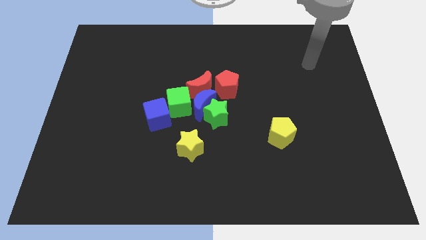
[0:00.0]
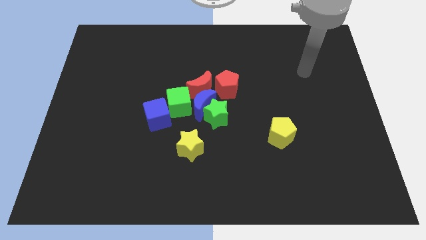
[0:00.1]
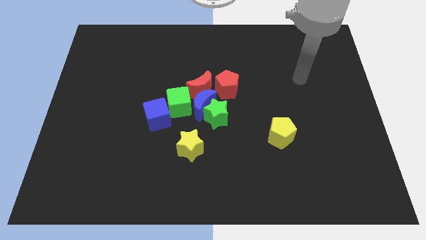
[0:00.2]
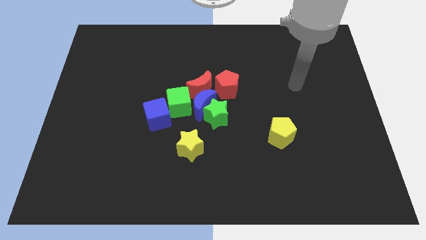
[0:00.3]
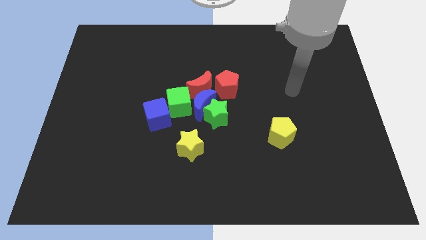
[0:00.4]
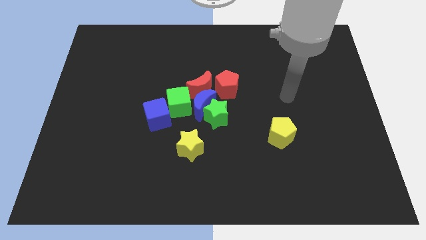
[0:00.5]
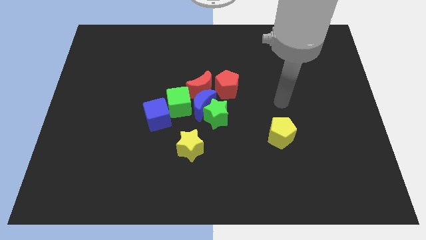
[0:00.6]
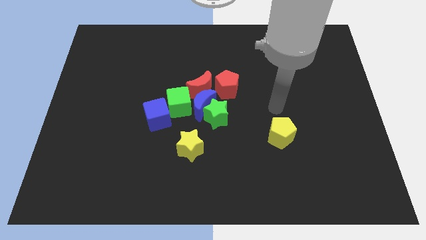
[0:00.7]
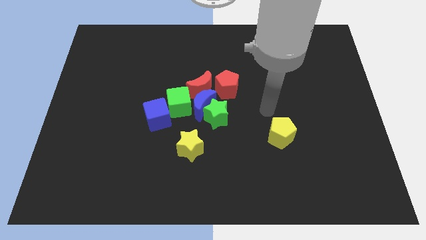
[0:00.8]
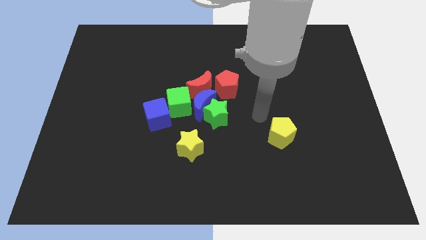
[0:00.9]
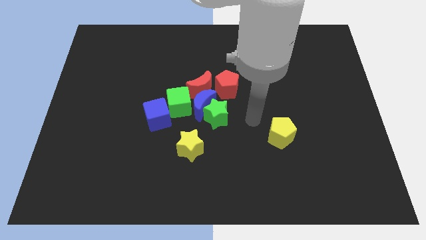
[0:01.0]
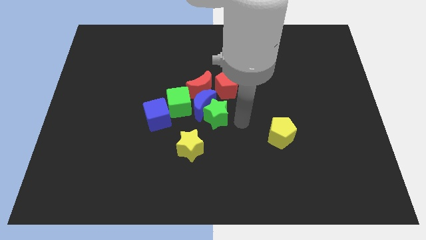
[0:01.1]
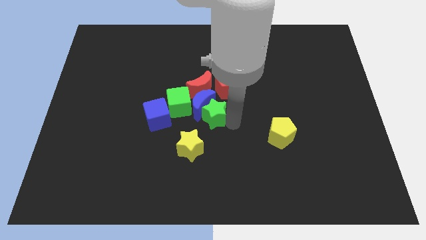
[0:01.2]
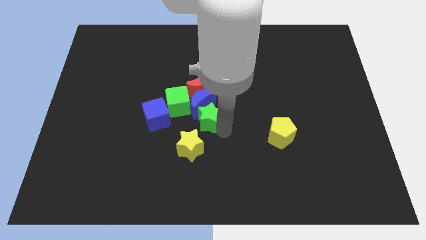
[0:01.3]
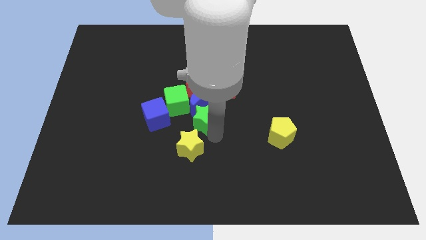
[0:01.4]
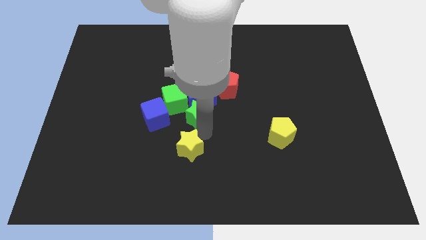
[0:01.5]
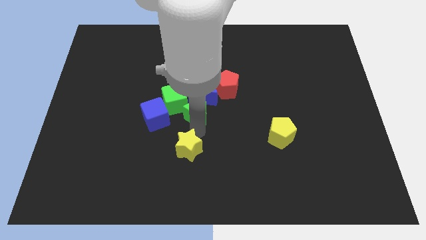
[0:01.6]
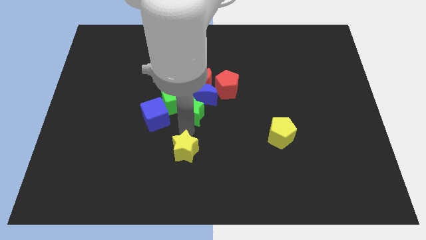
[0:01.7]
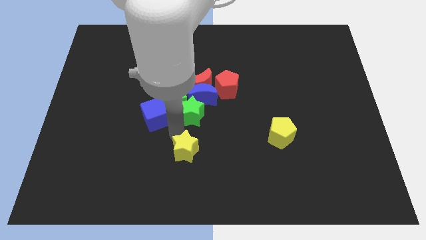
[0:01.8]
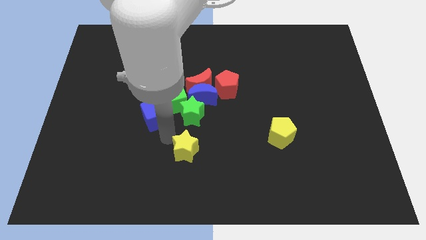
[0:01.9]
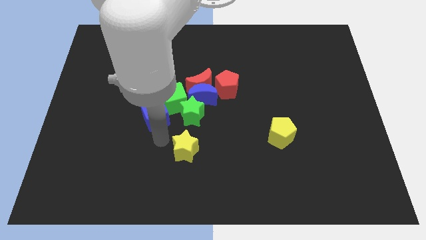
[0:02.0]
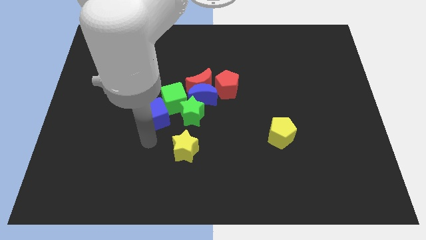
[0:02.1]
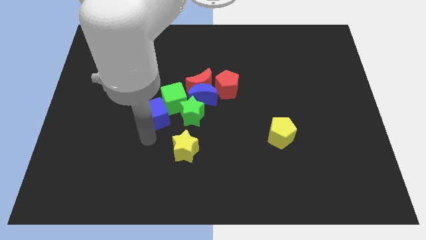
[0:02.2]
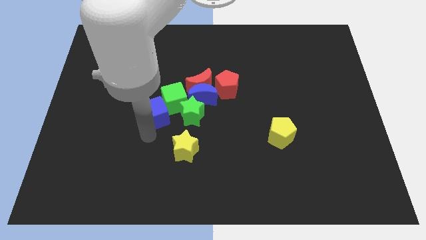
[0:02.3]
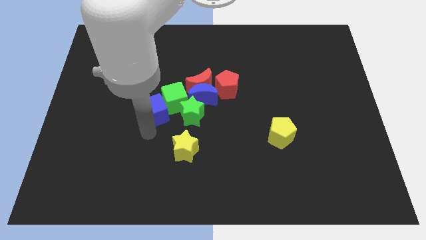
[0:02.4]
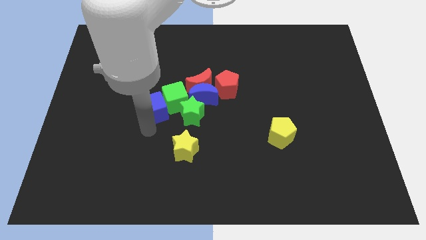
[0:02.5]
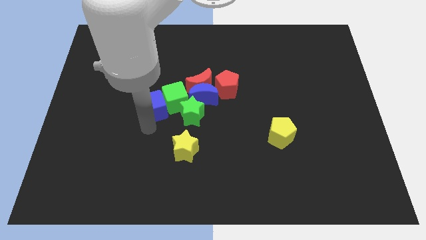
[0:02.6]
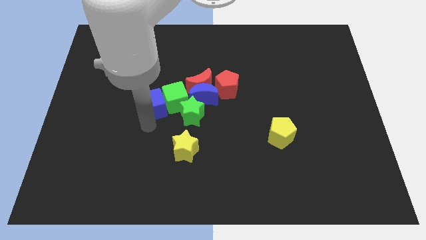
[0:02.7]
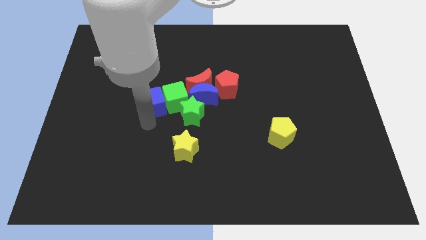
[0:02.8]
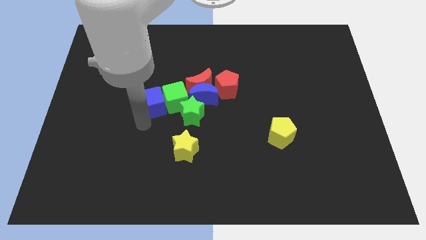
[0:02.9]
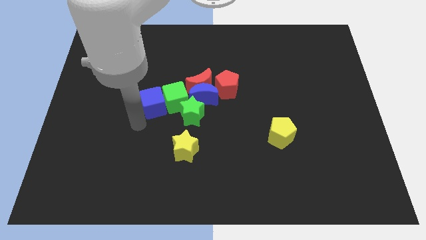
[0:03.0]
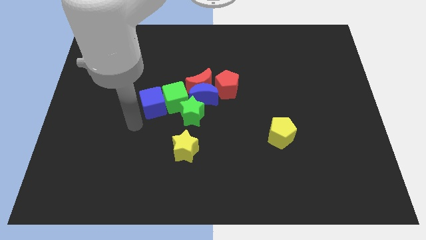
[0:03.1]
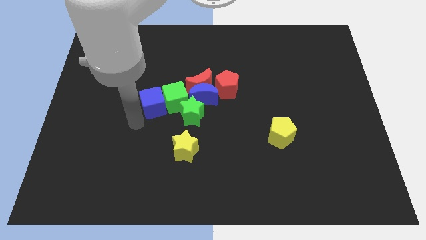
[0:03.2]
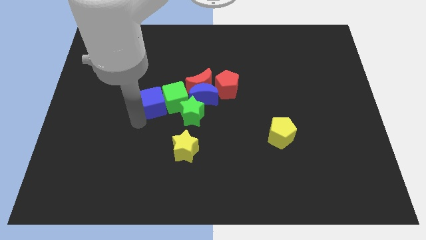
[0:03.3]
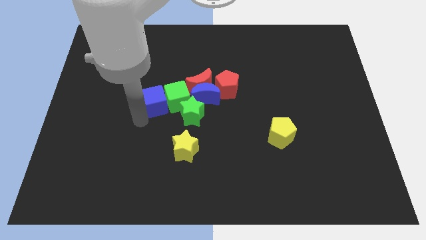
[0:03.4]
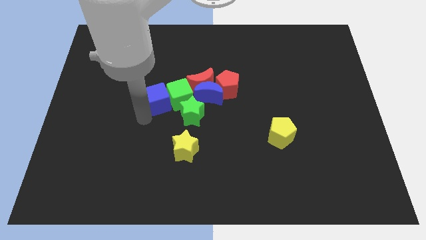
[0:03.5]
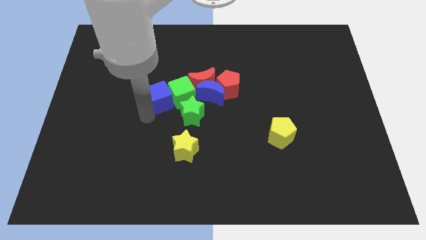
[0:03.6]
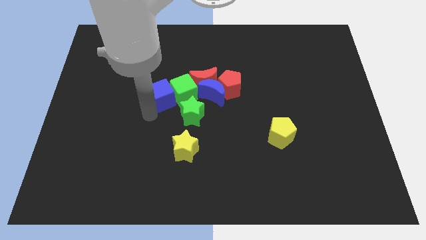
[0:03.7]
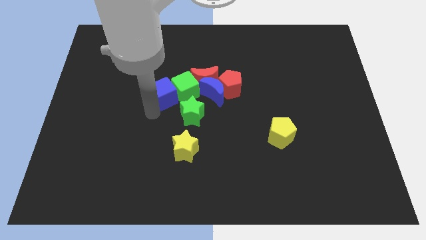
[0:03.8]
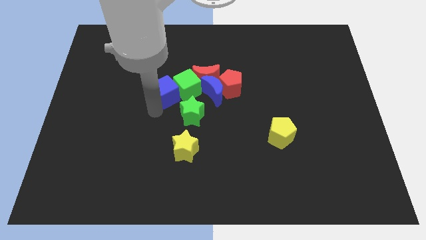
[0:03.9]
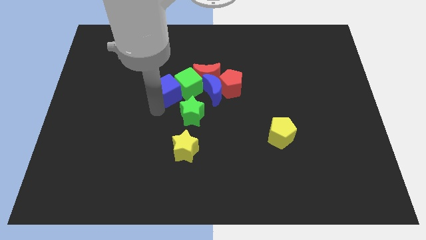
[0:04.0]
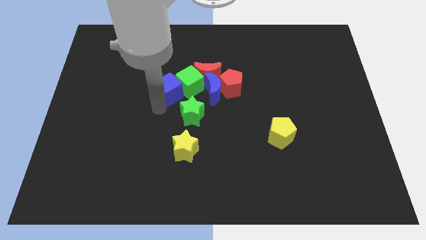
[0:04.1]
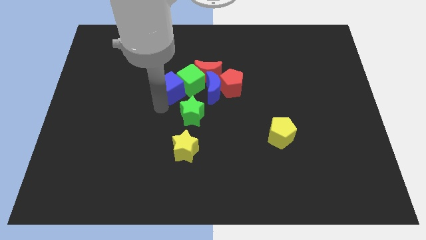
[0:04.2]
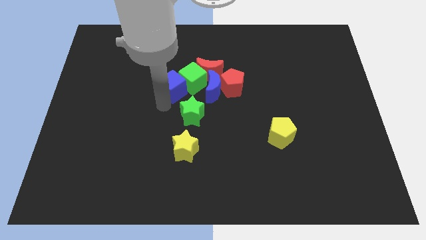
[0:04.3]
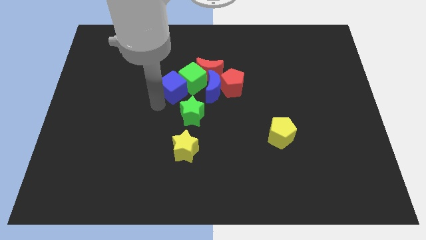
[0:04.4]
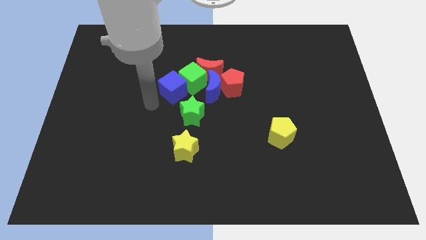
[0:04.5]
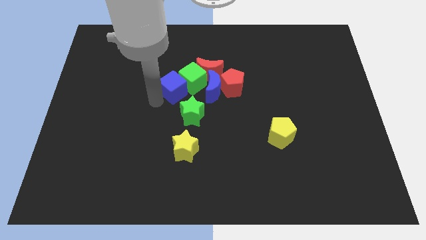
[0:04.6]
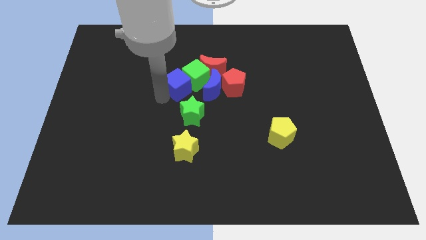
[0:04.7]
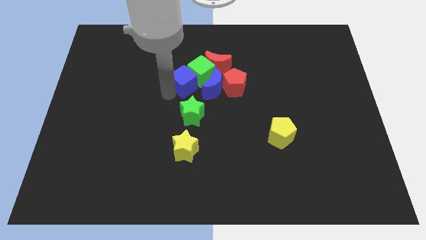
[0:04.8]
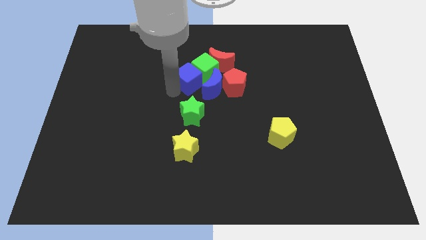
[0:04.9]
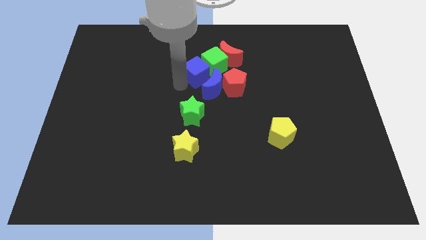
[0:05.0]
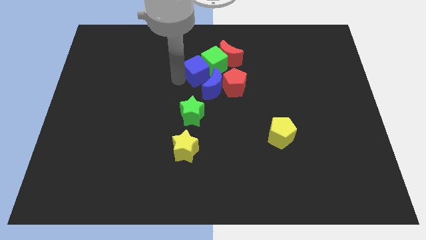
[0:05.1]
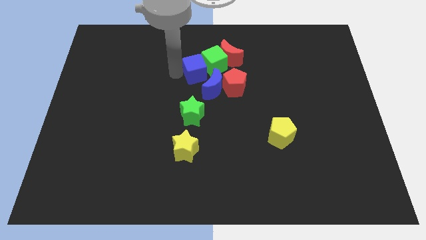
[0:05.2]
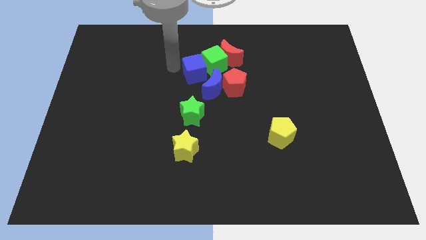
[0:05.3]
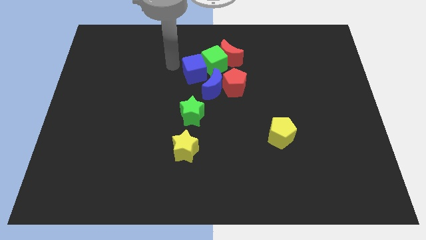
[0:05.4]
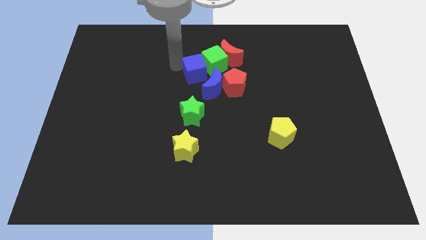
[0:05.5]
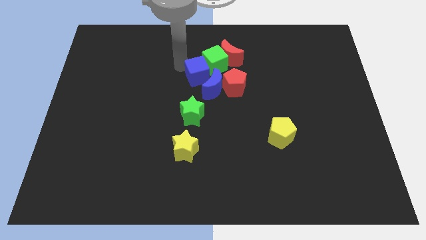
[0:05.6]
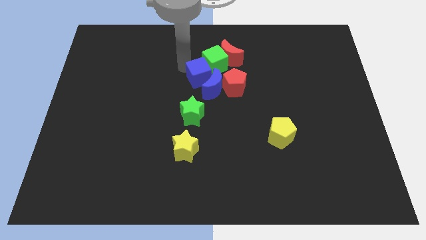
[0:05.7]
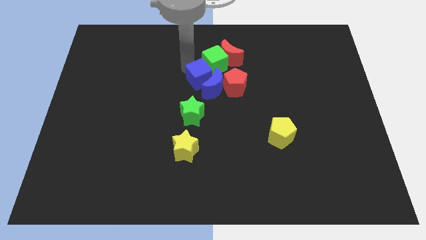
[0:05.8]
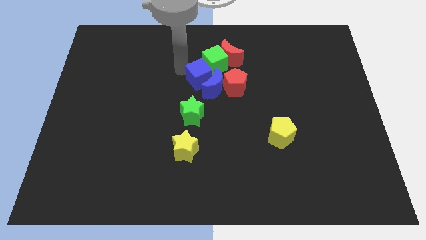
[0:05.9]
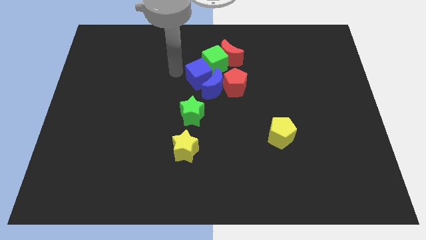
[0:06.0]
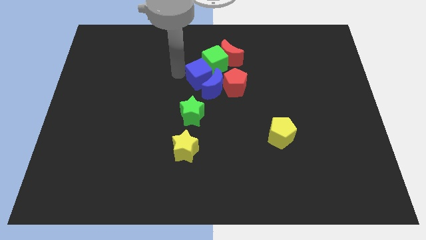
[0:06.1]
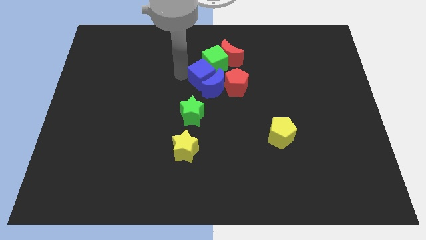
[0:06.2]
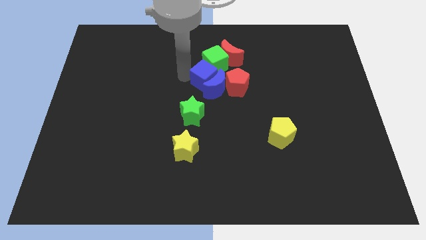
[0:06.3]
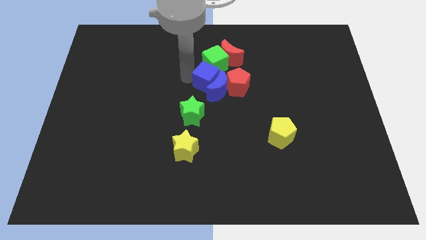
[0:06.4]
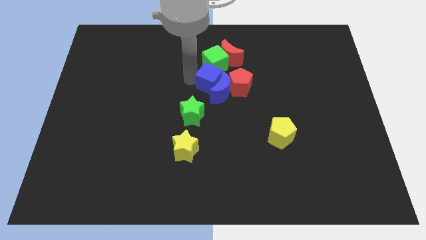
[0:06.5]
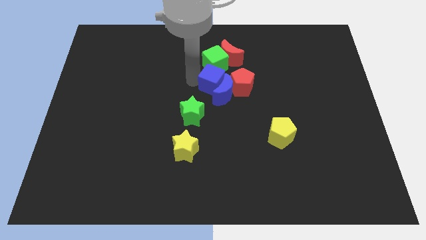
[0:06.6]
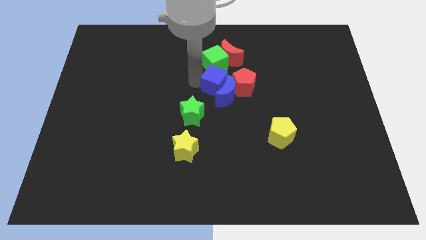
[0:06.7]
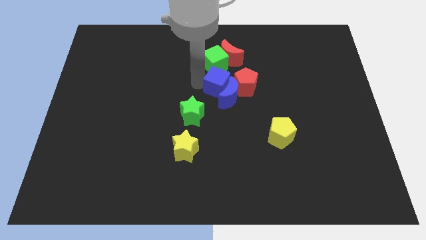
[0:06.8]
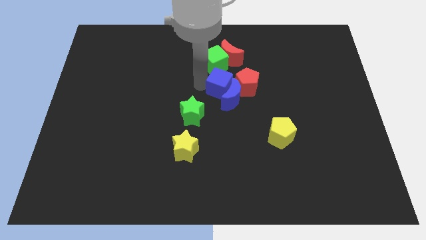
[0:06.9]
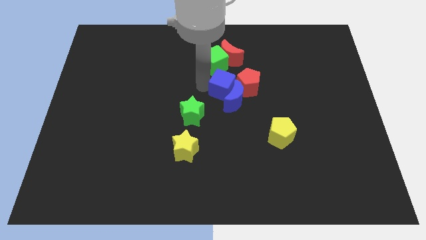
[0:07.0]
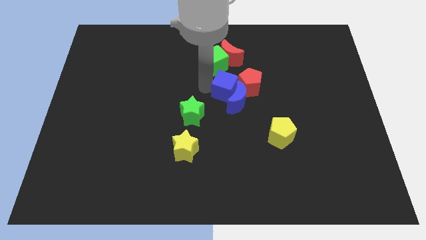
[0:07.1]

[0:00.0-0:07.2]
put the blue cube to the red pentagon

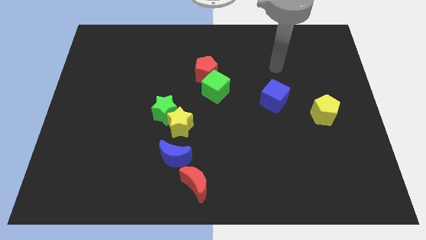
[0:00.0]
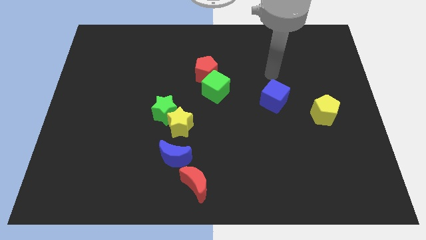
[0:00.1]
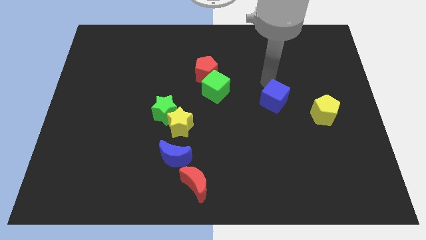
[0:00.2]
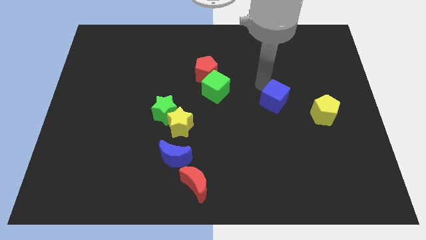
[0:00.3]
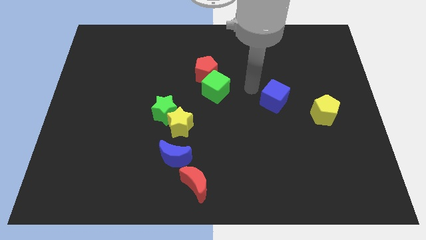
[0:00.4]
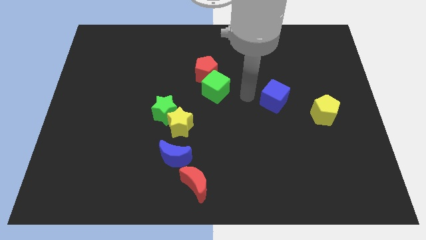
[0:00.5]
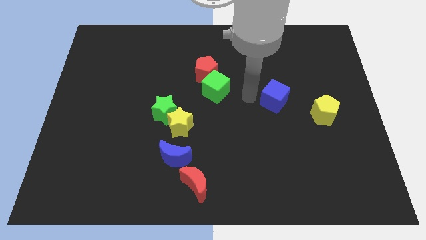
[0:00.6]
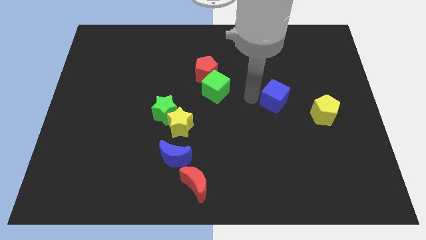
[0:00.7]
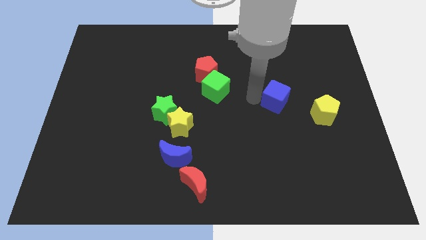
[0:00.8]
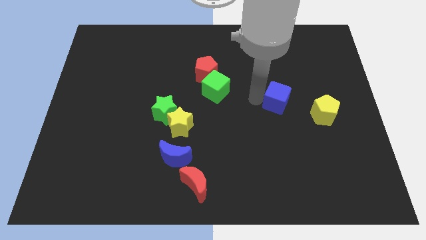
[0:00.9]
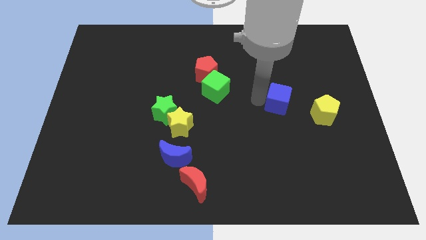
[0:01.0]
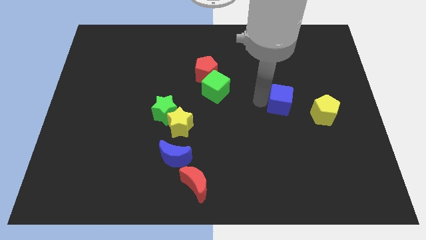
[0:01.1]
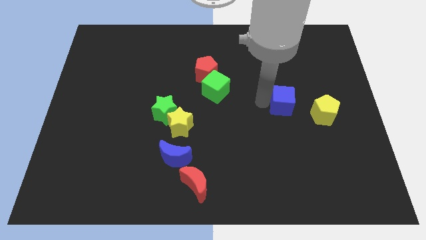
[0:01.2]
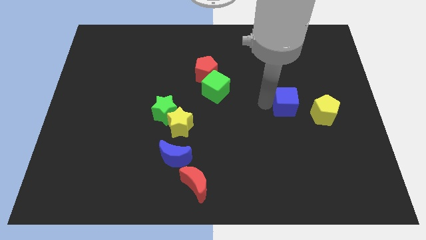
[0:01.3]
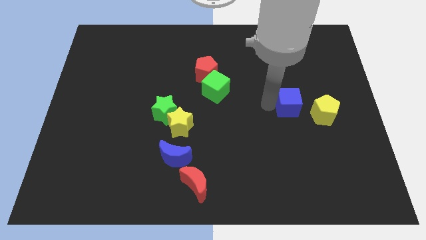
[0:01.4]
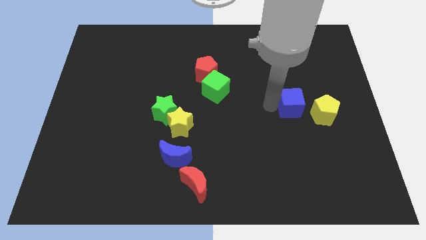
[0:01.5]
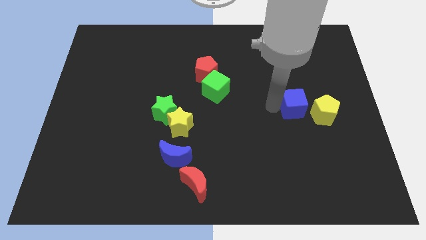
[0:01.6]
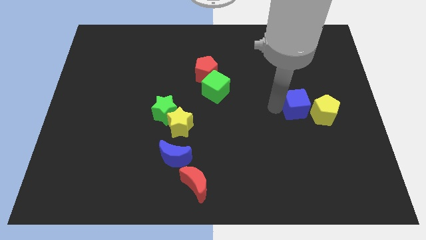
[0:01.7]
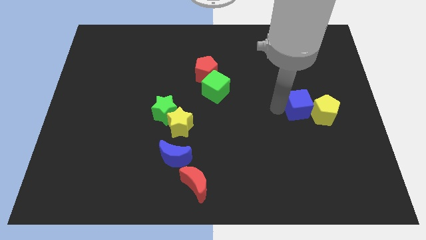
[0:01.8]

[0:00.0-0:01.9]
slide the blue cube towards the yellow pentagon
